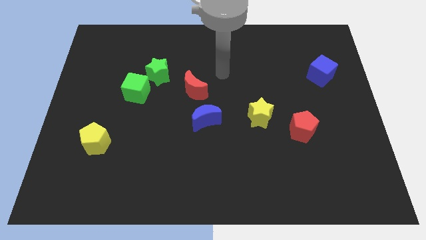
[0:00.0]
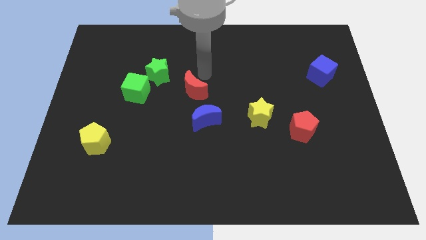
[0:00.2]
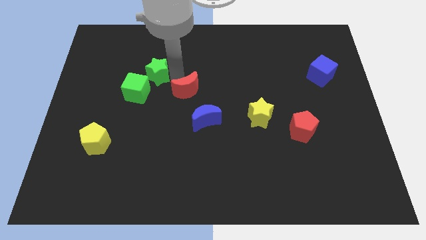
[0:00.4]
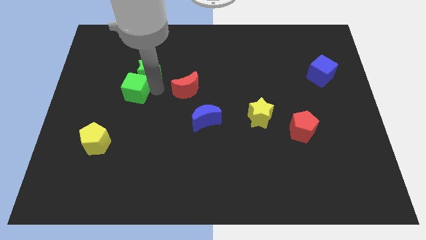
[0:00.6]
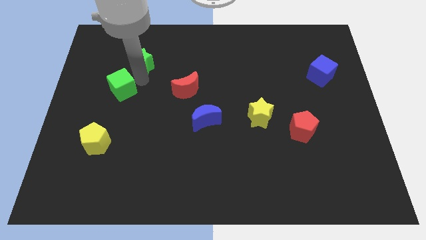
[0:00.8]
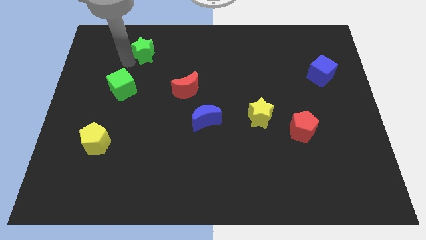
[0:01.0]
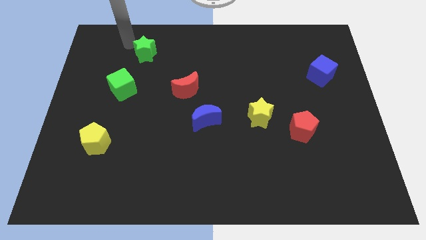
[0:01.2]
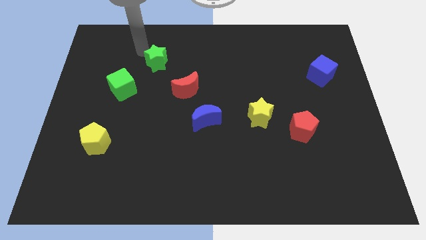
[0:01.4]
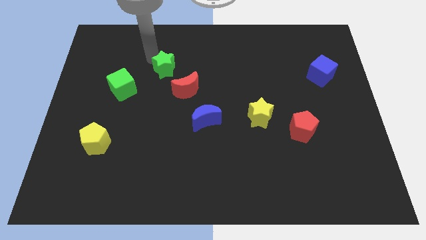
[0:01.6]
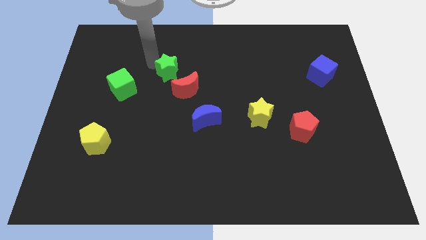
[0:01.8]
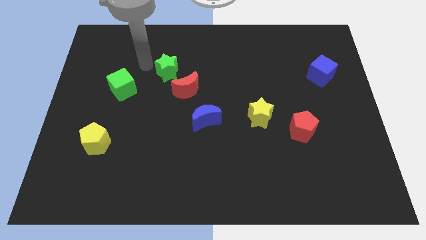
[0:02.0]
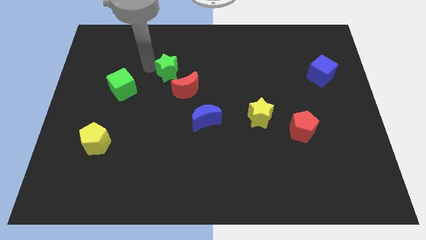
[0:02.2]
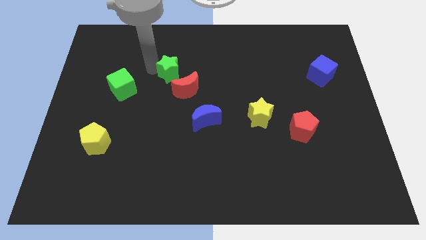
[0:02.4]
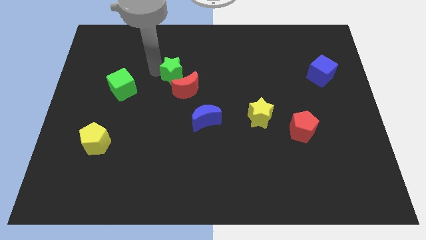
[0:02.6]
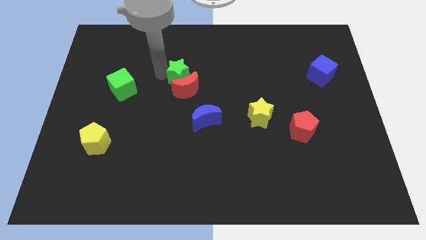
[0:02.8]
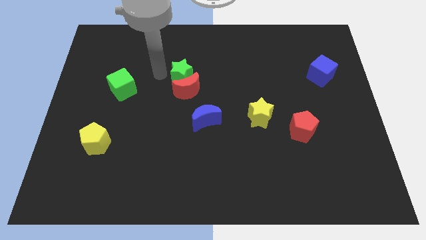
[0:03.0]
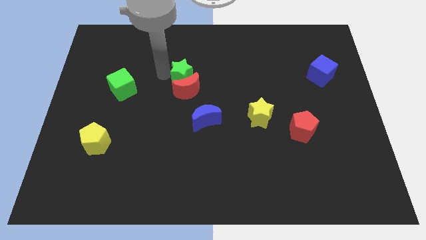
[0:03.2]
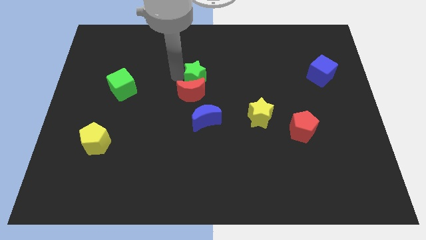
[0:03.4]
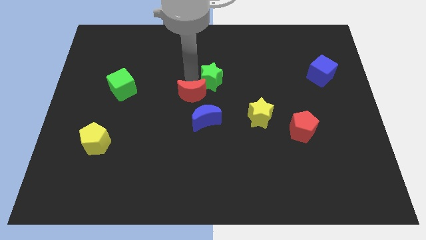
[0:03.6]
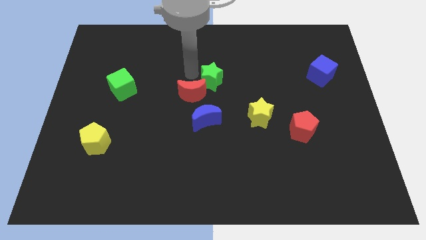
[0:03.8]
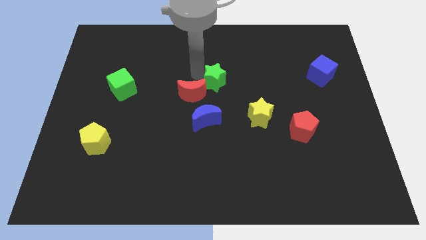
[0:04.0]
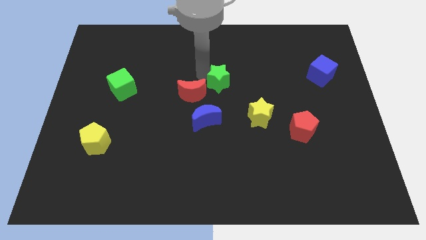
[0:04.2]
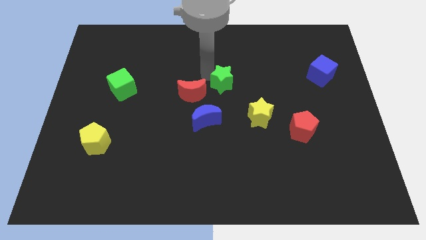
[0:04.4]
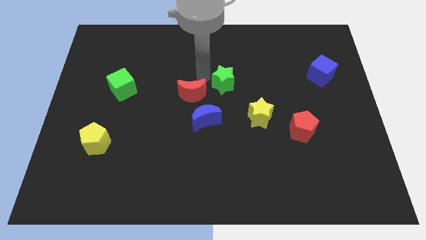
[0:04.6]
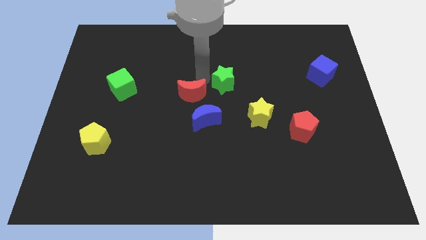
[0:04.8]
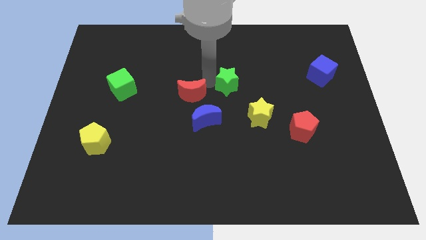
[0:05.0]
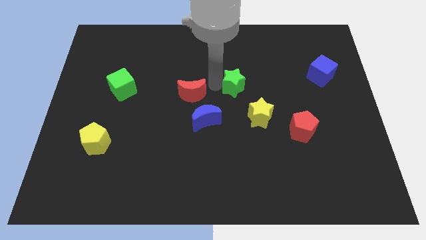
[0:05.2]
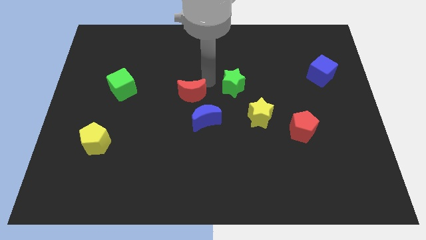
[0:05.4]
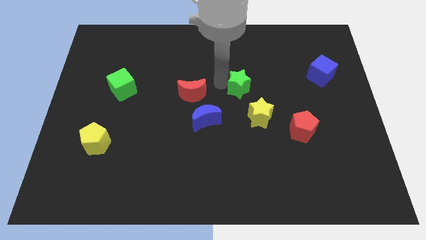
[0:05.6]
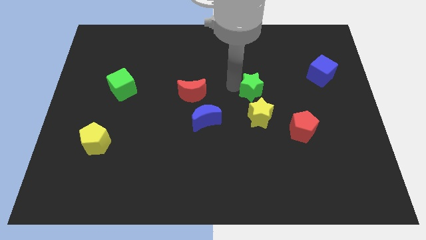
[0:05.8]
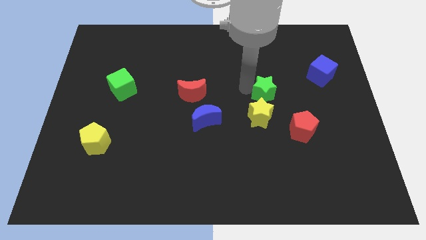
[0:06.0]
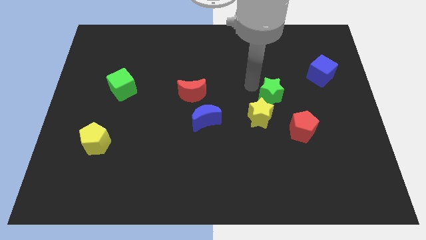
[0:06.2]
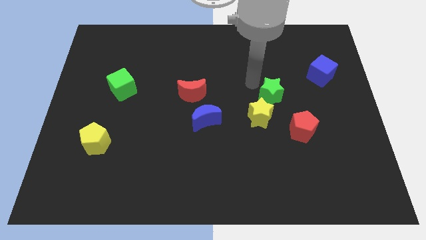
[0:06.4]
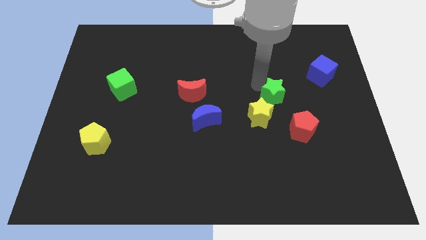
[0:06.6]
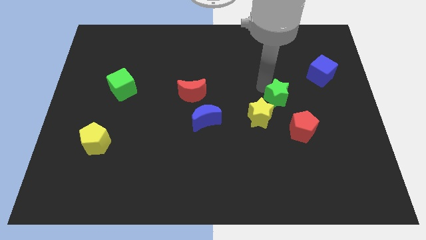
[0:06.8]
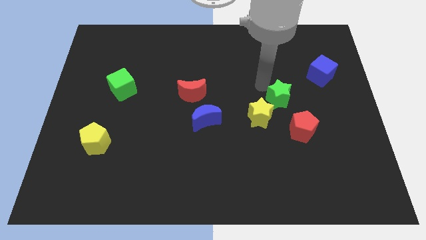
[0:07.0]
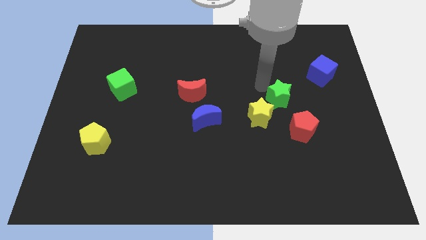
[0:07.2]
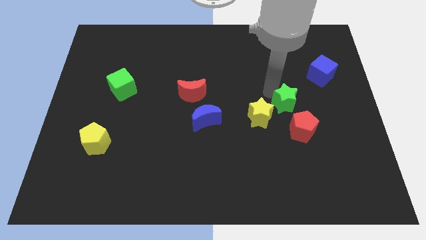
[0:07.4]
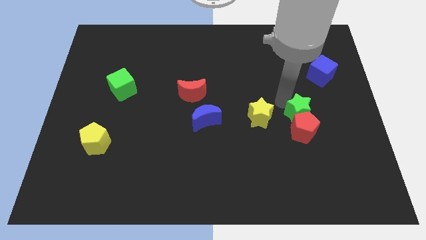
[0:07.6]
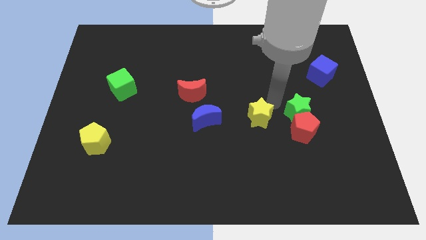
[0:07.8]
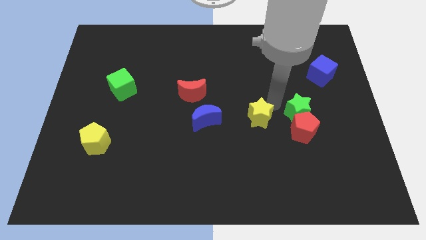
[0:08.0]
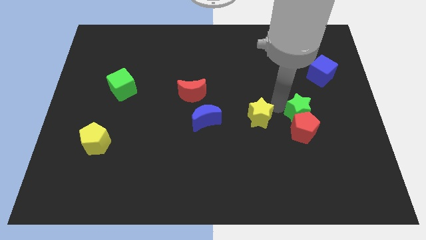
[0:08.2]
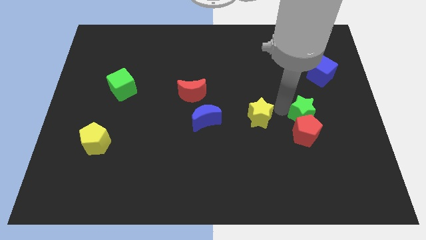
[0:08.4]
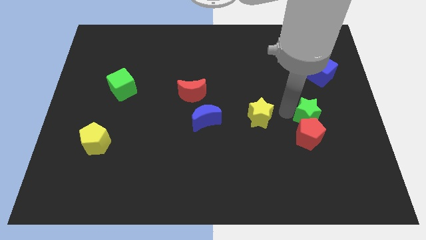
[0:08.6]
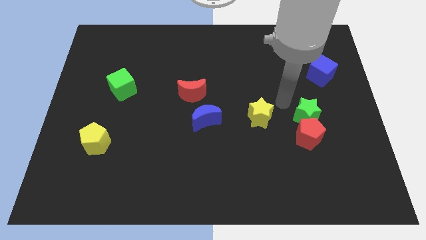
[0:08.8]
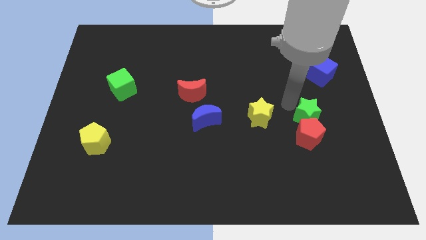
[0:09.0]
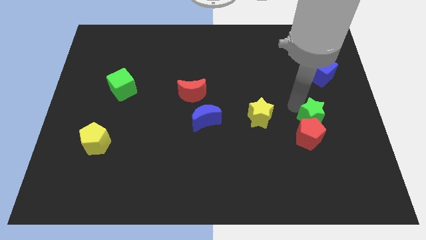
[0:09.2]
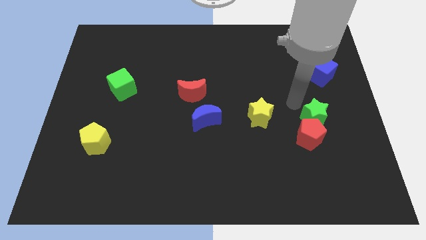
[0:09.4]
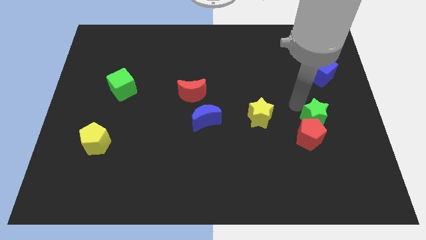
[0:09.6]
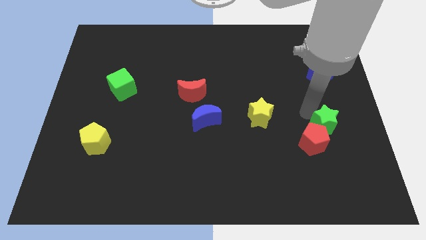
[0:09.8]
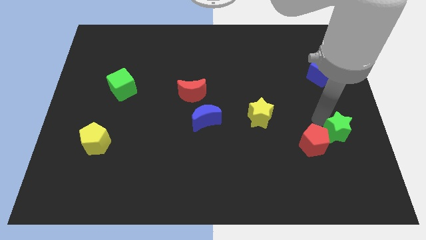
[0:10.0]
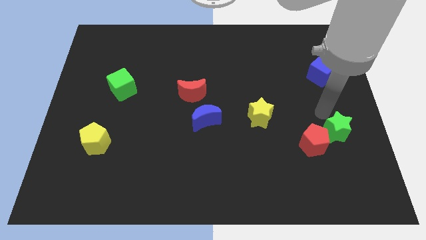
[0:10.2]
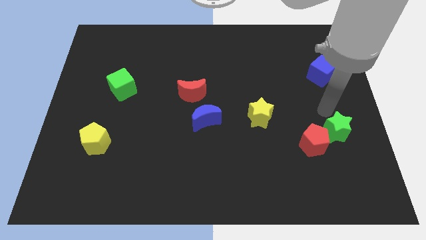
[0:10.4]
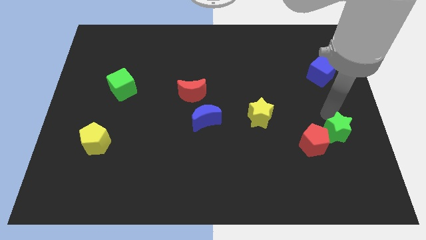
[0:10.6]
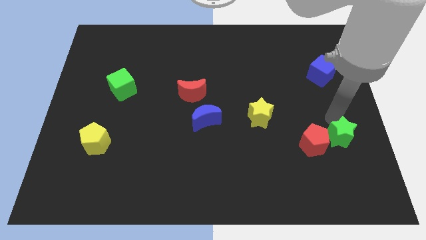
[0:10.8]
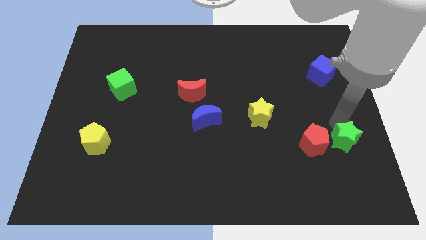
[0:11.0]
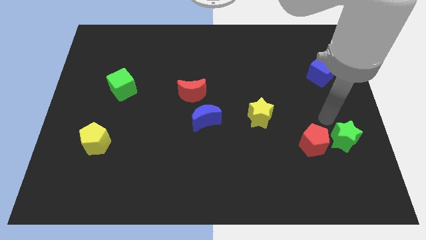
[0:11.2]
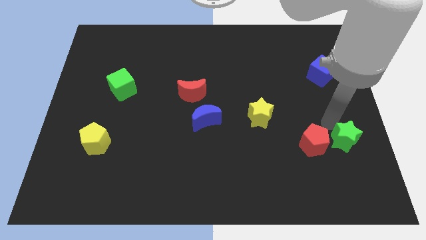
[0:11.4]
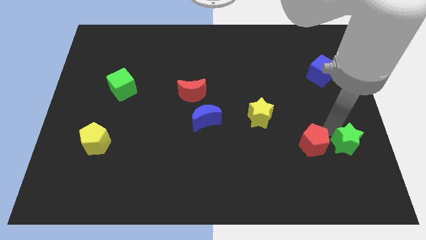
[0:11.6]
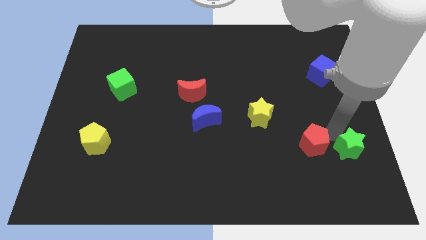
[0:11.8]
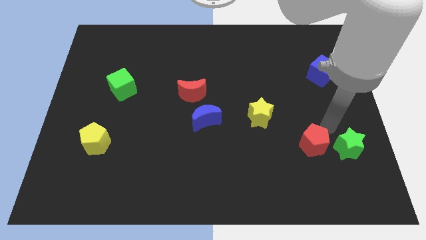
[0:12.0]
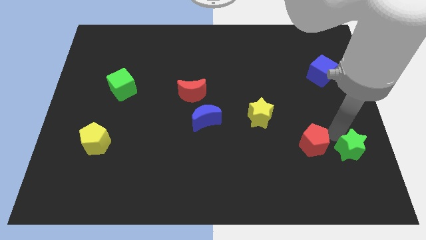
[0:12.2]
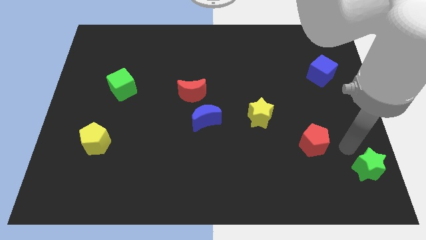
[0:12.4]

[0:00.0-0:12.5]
move the green star to the bottom right

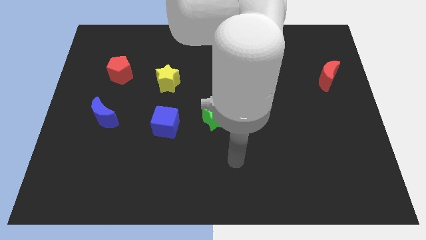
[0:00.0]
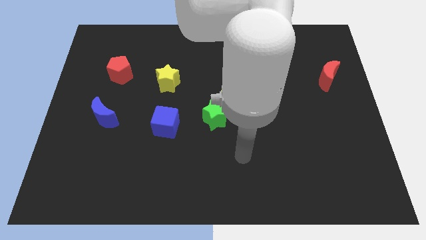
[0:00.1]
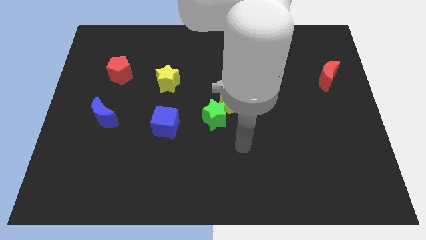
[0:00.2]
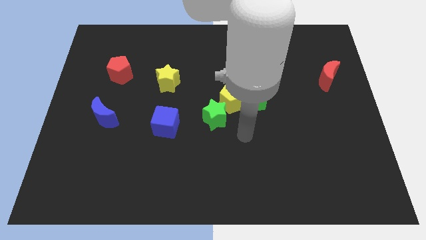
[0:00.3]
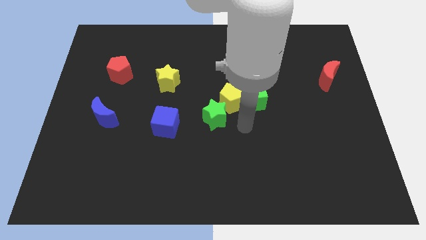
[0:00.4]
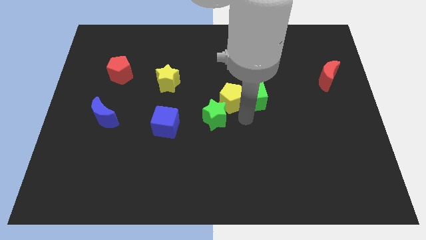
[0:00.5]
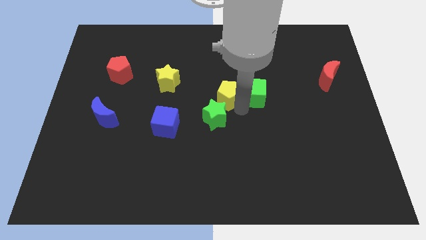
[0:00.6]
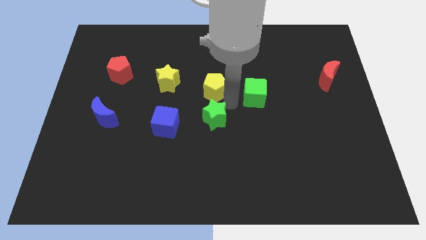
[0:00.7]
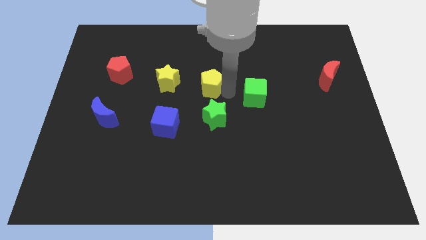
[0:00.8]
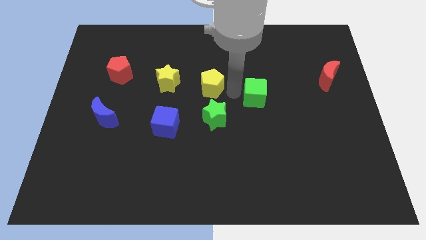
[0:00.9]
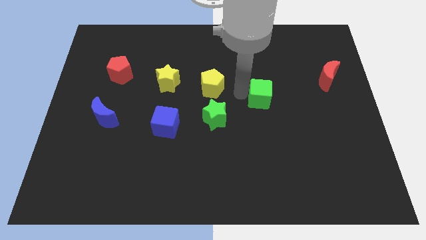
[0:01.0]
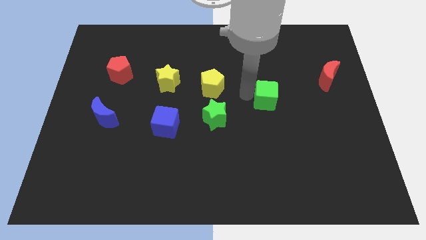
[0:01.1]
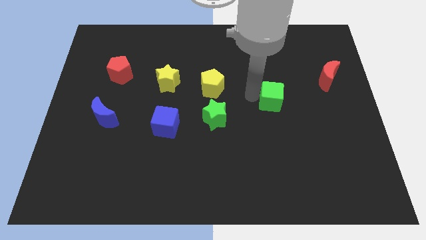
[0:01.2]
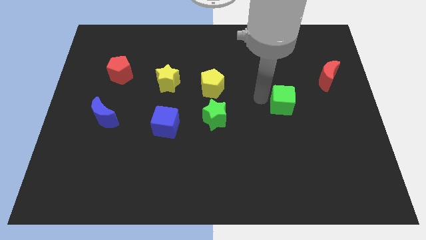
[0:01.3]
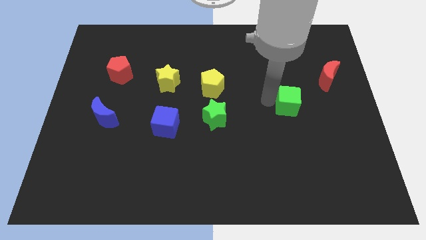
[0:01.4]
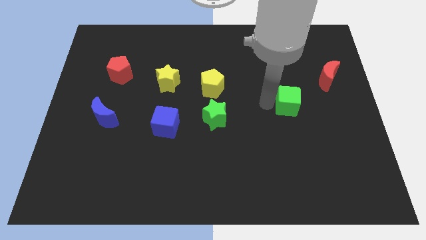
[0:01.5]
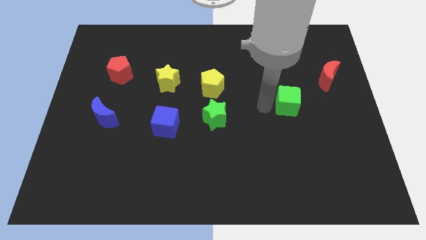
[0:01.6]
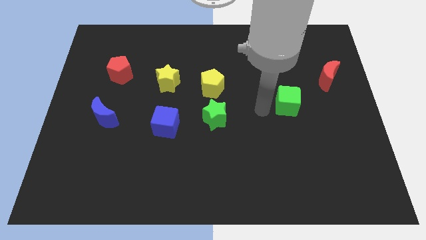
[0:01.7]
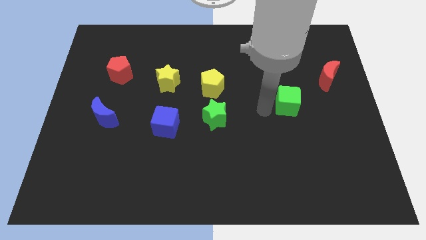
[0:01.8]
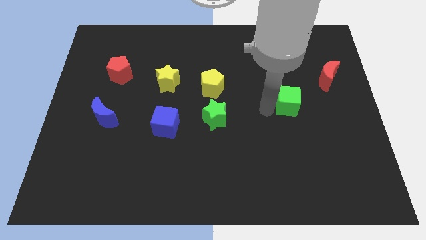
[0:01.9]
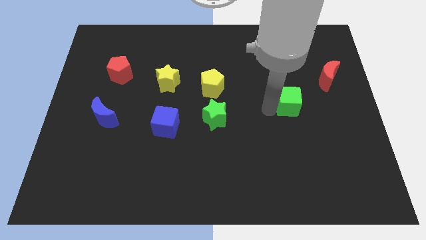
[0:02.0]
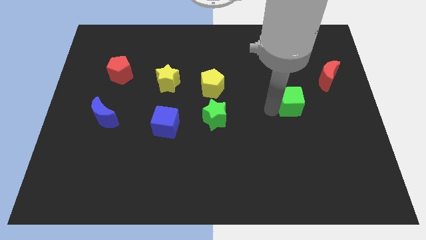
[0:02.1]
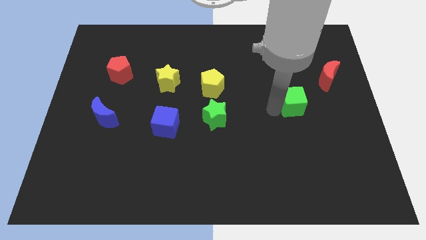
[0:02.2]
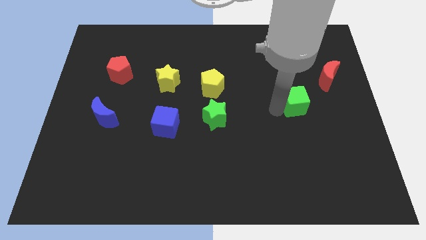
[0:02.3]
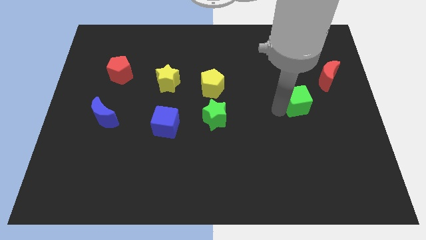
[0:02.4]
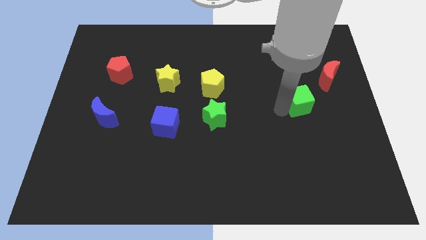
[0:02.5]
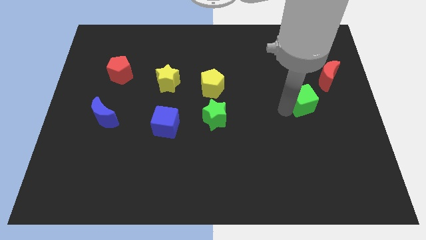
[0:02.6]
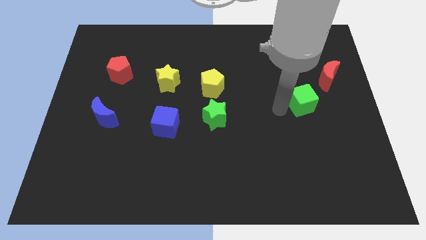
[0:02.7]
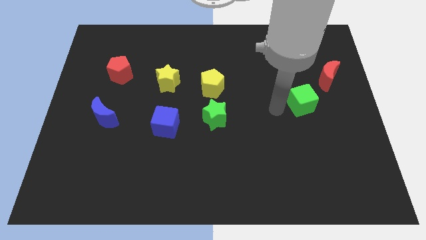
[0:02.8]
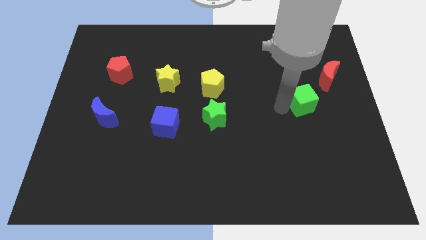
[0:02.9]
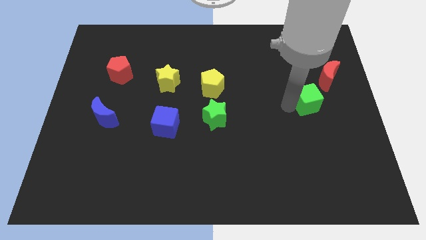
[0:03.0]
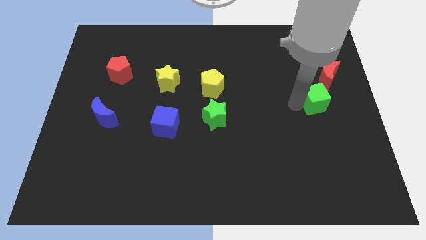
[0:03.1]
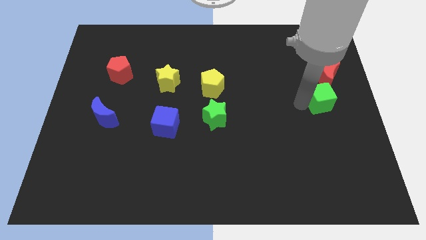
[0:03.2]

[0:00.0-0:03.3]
move the green cube to the center right
